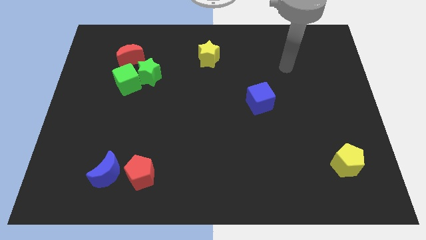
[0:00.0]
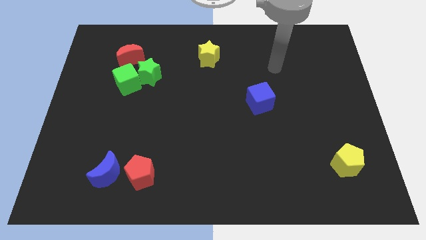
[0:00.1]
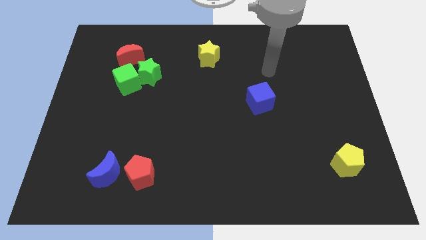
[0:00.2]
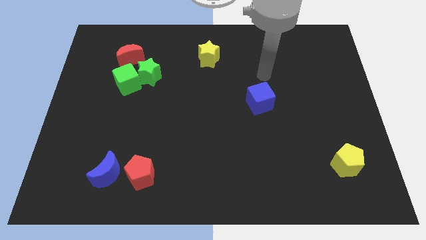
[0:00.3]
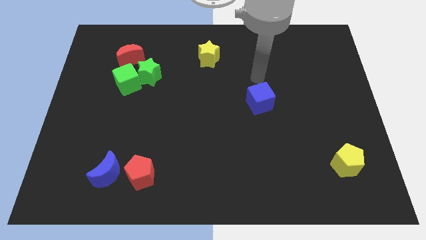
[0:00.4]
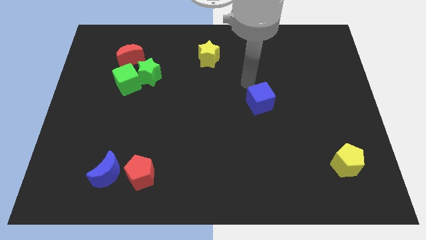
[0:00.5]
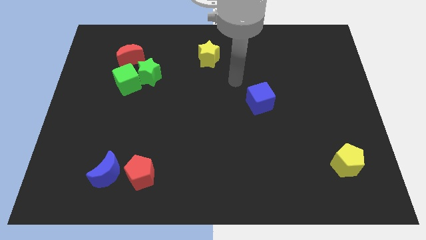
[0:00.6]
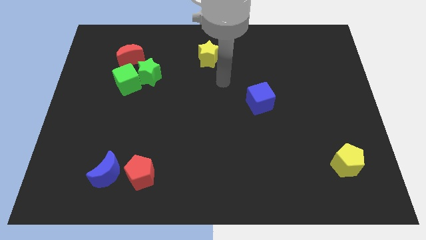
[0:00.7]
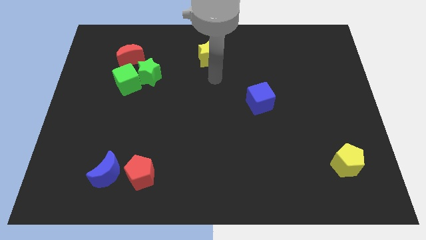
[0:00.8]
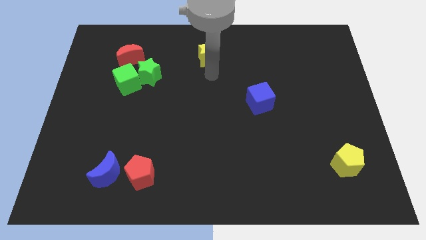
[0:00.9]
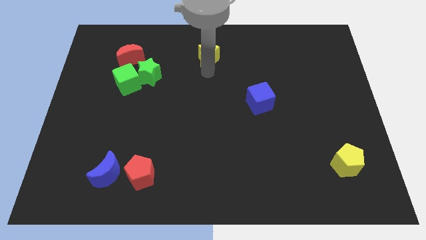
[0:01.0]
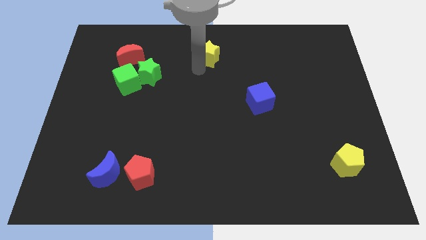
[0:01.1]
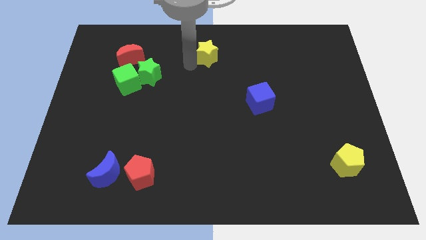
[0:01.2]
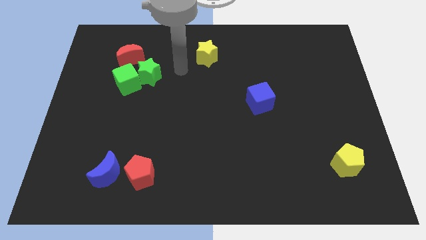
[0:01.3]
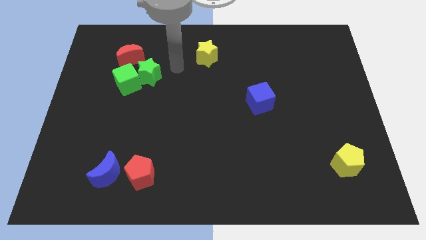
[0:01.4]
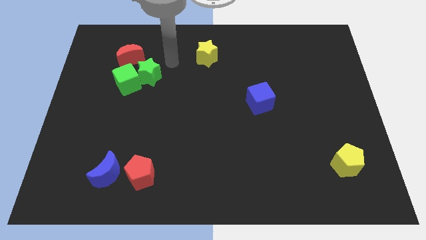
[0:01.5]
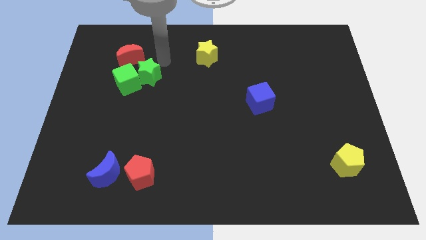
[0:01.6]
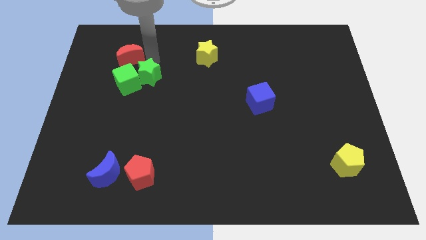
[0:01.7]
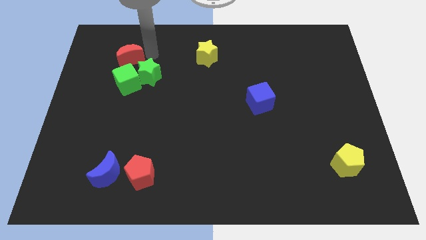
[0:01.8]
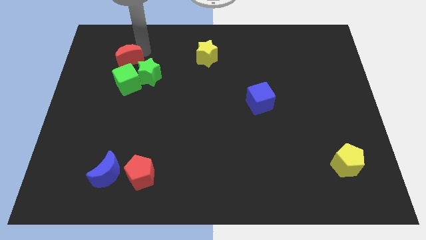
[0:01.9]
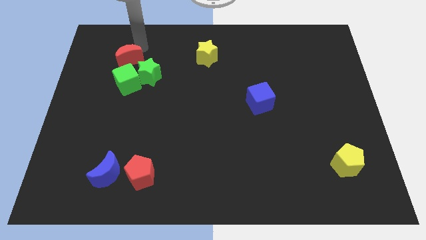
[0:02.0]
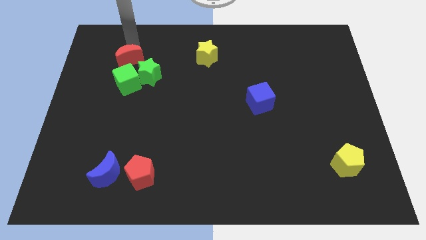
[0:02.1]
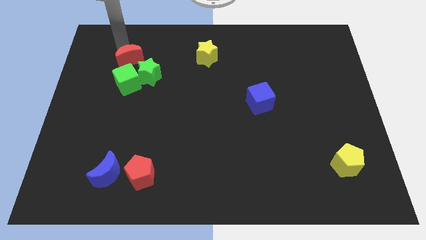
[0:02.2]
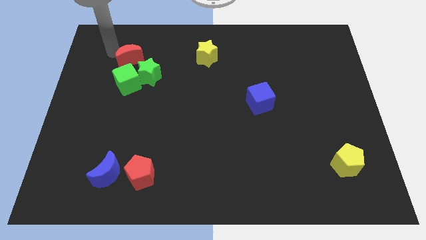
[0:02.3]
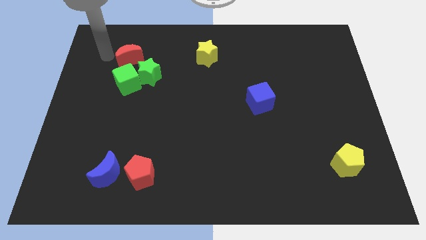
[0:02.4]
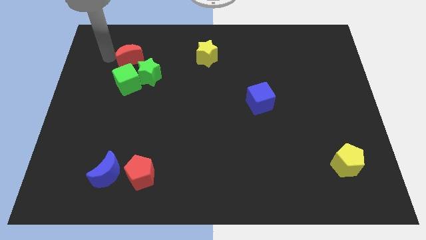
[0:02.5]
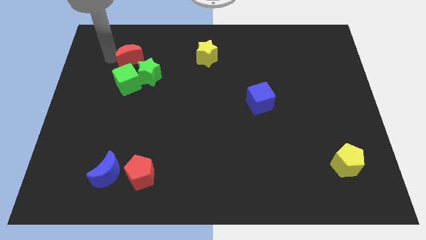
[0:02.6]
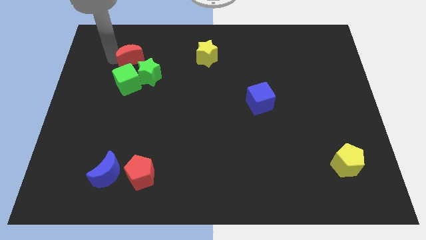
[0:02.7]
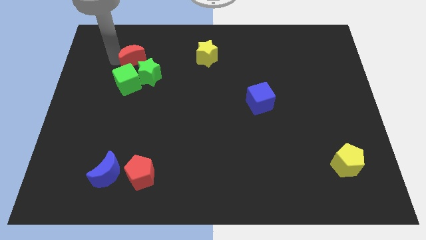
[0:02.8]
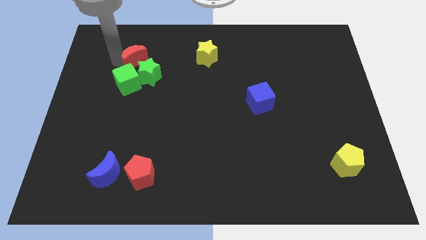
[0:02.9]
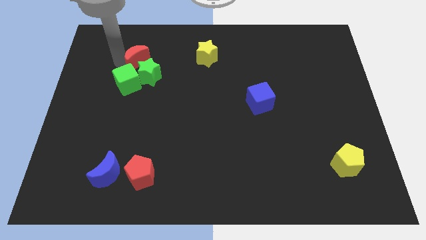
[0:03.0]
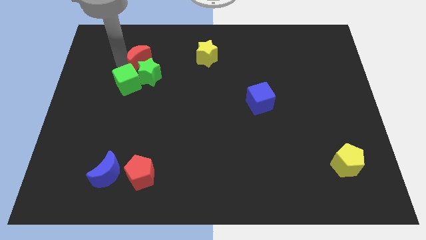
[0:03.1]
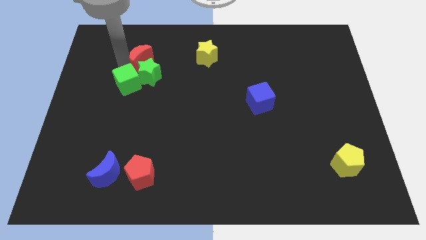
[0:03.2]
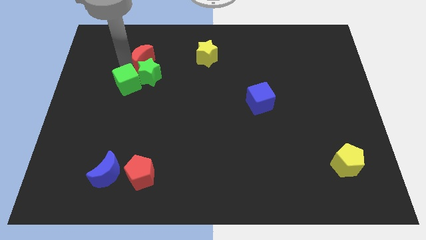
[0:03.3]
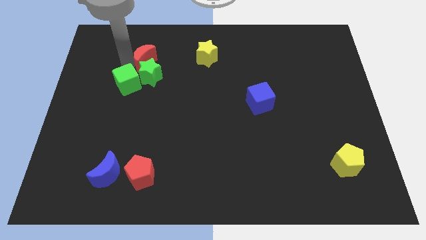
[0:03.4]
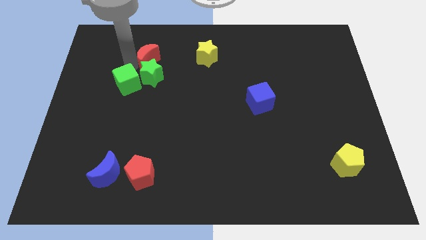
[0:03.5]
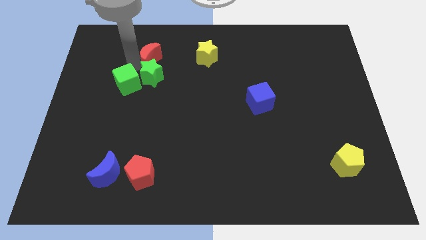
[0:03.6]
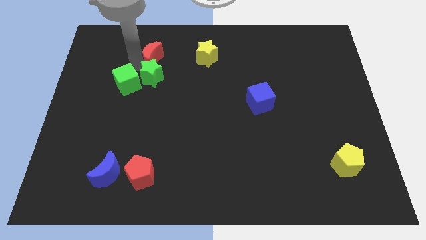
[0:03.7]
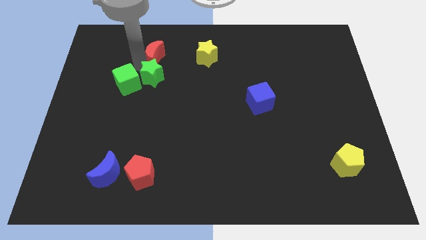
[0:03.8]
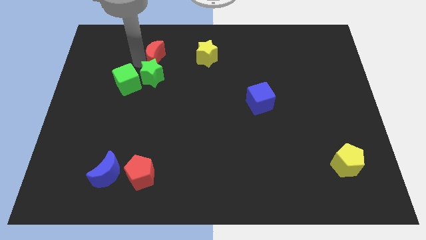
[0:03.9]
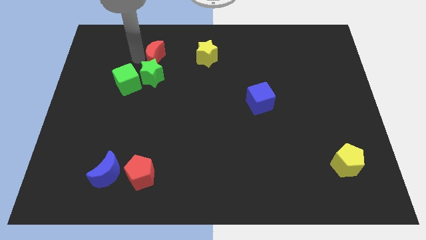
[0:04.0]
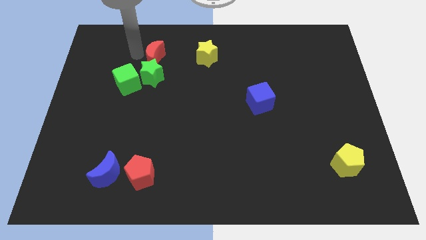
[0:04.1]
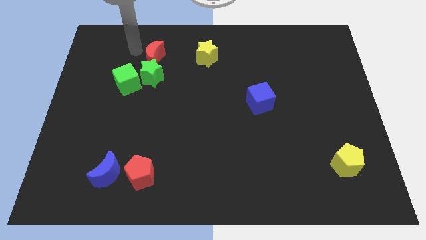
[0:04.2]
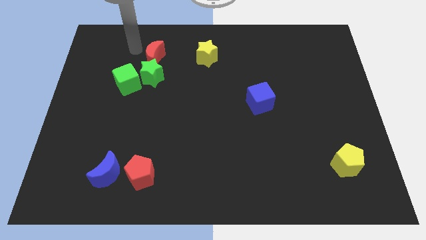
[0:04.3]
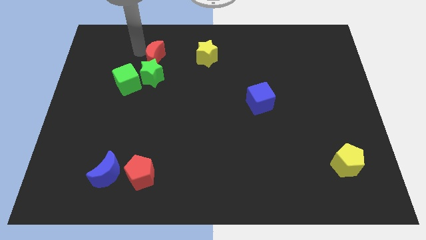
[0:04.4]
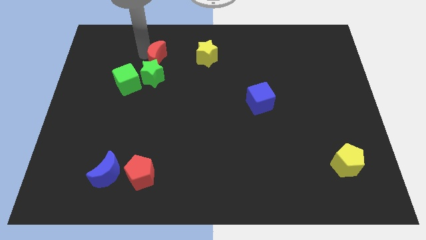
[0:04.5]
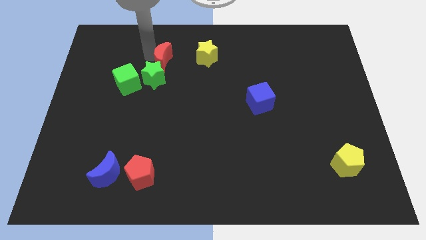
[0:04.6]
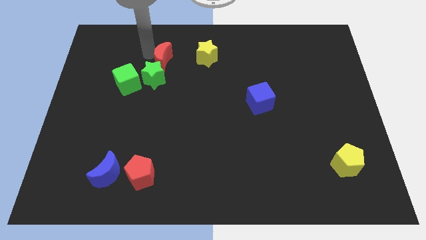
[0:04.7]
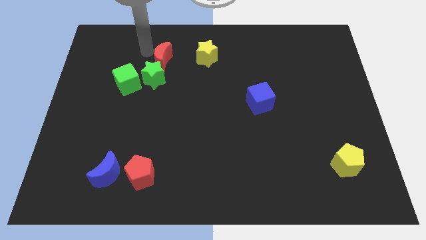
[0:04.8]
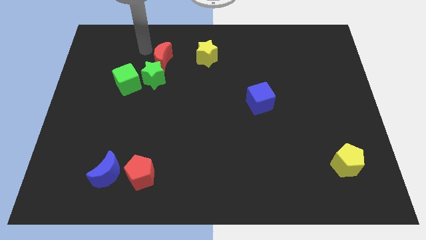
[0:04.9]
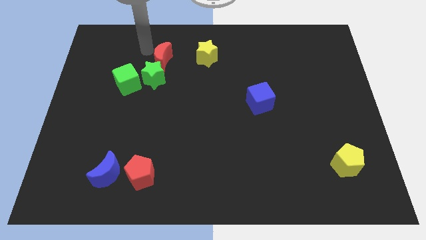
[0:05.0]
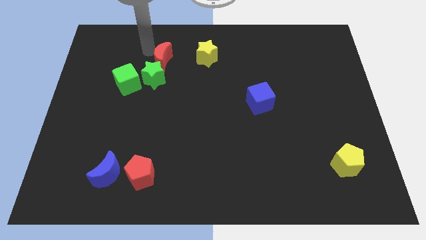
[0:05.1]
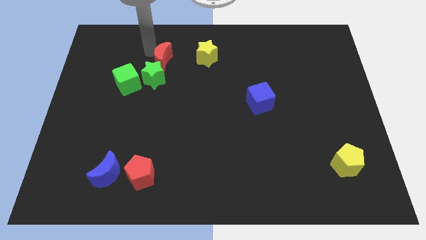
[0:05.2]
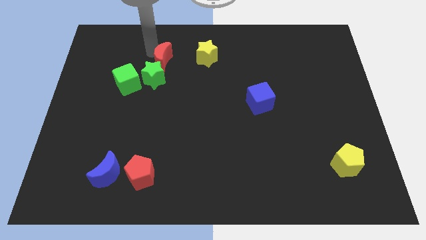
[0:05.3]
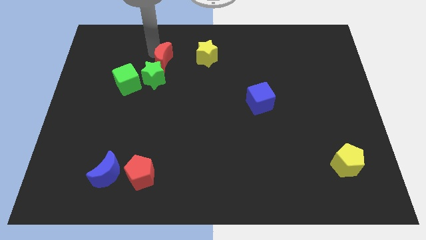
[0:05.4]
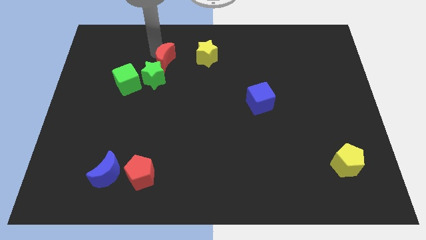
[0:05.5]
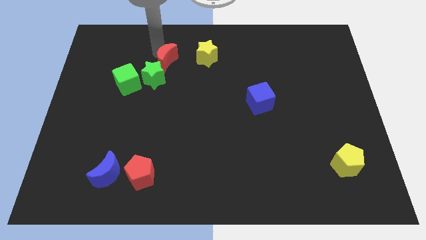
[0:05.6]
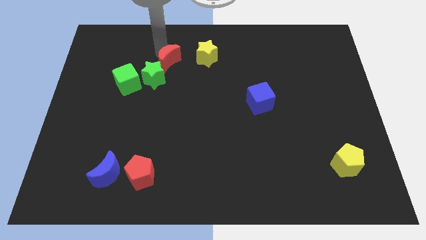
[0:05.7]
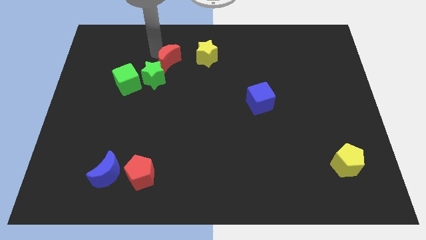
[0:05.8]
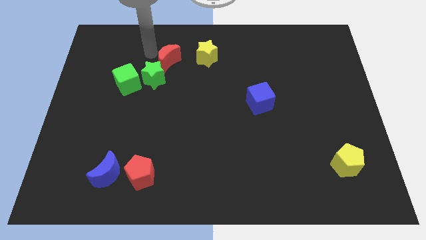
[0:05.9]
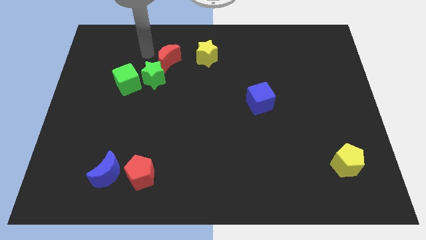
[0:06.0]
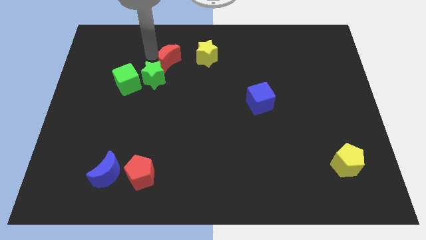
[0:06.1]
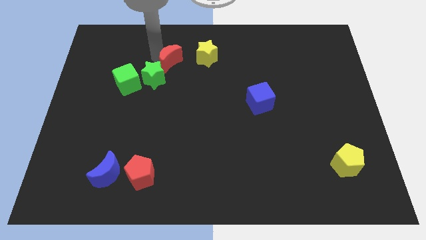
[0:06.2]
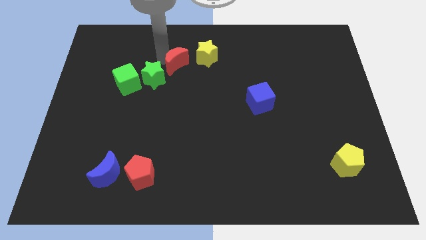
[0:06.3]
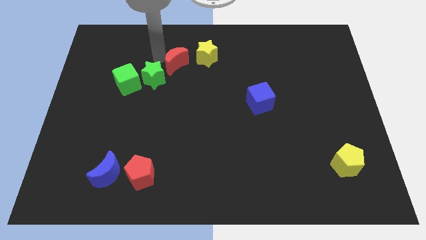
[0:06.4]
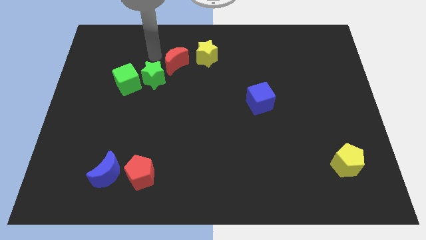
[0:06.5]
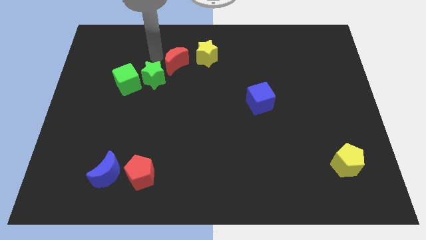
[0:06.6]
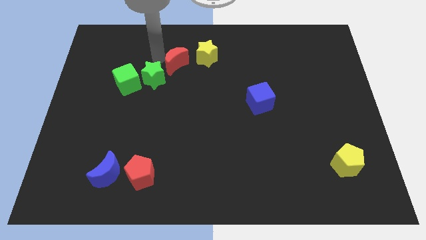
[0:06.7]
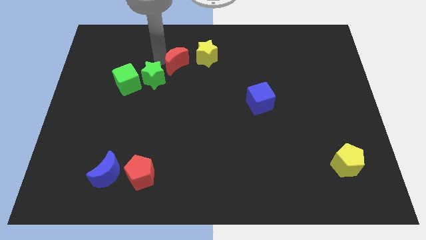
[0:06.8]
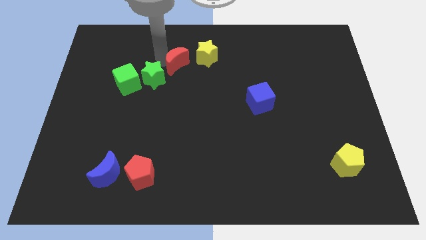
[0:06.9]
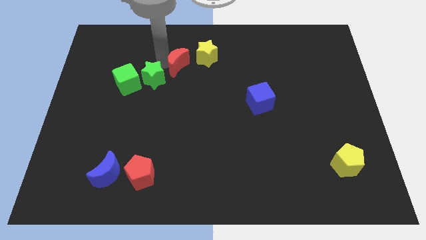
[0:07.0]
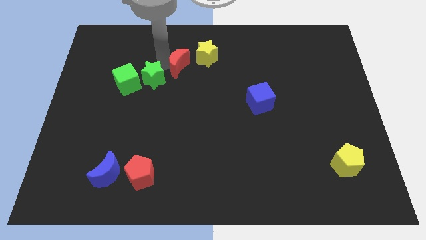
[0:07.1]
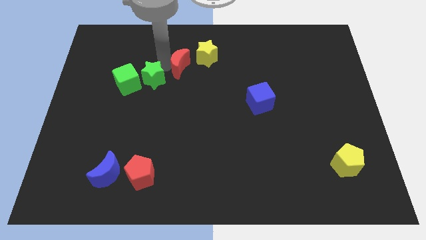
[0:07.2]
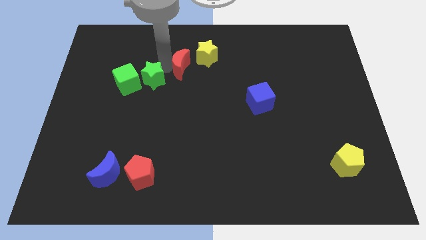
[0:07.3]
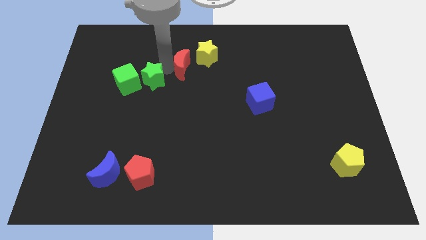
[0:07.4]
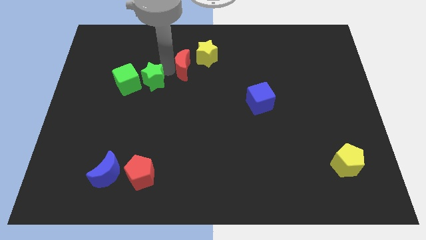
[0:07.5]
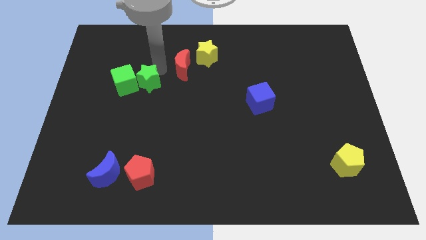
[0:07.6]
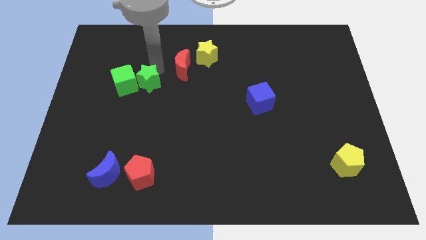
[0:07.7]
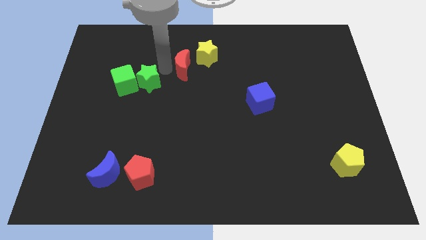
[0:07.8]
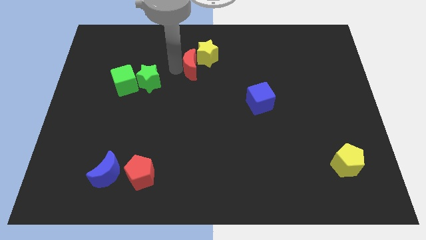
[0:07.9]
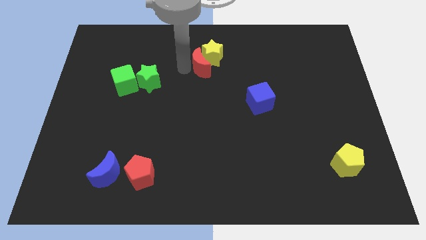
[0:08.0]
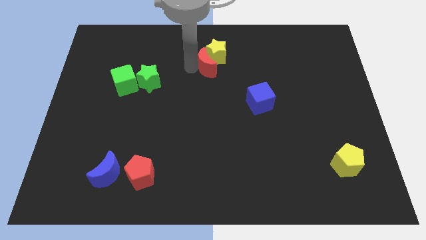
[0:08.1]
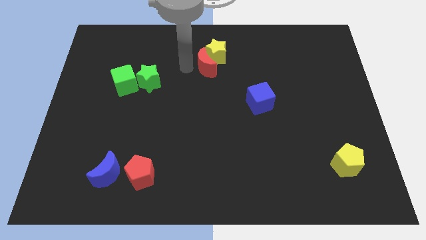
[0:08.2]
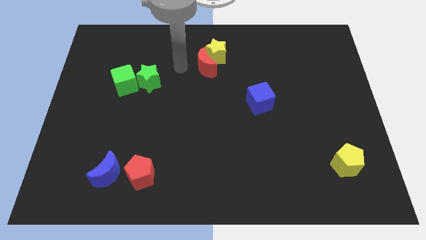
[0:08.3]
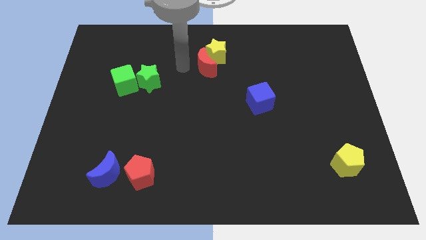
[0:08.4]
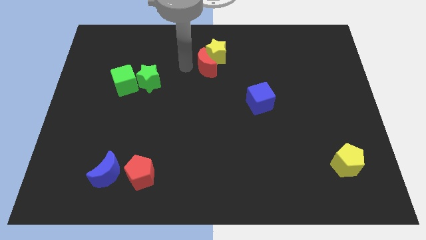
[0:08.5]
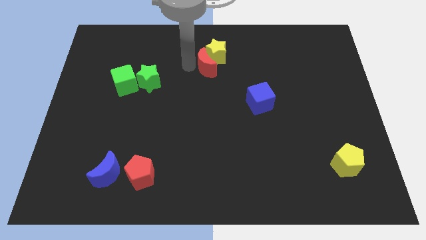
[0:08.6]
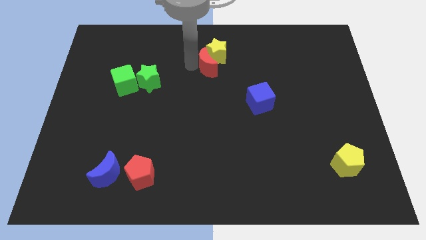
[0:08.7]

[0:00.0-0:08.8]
push the red moon to the right
